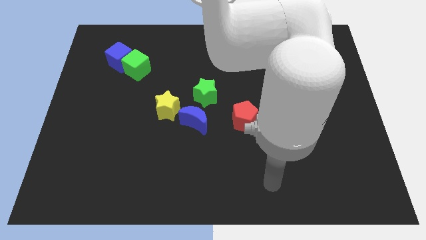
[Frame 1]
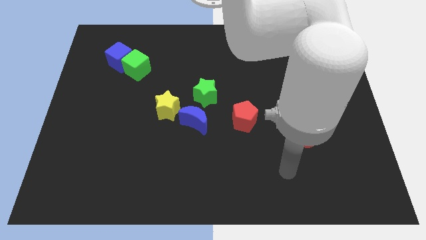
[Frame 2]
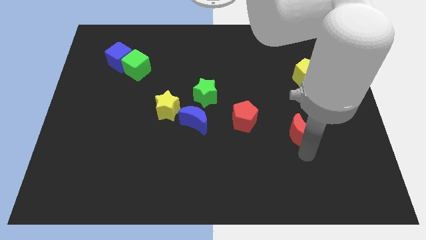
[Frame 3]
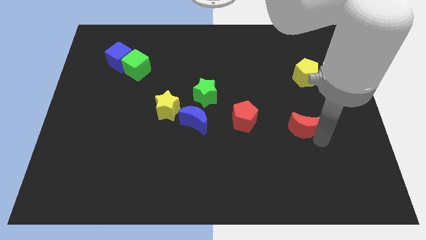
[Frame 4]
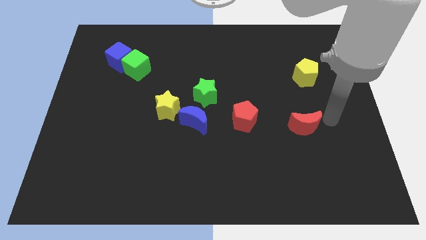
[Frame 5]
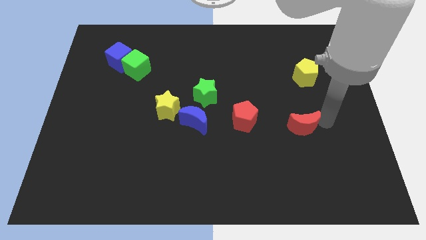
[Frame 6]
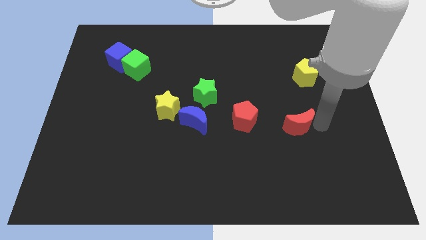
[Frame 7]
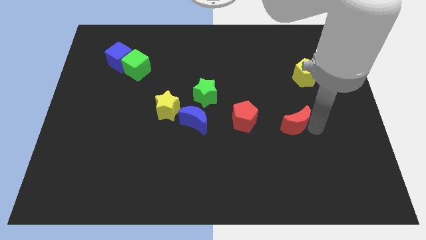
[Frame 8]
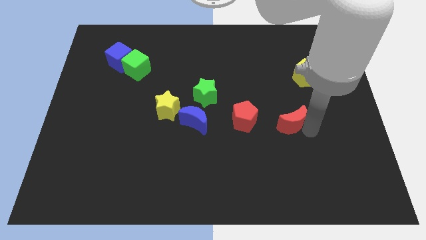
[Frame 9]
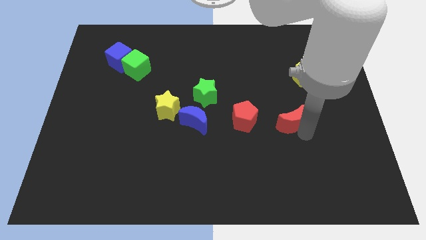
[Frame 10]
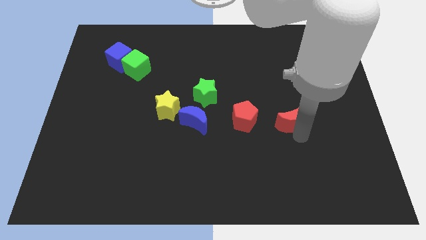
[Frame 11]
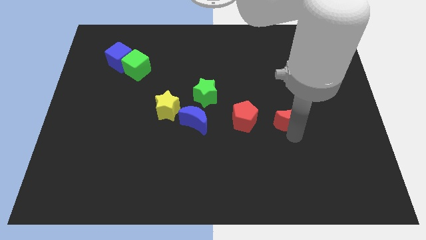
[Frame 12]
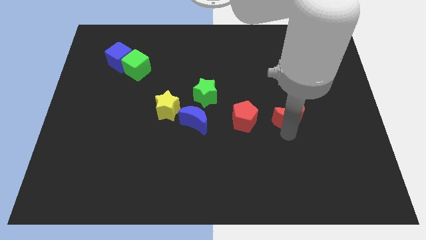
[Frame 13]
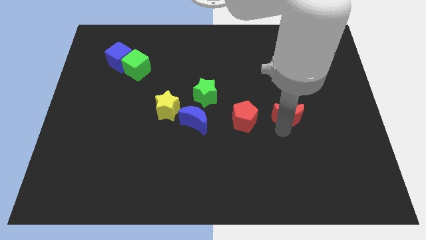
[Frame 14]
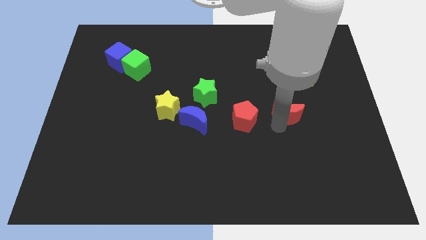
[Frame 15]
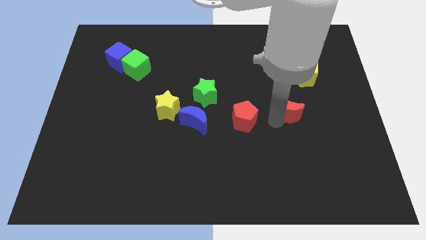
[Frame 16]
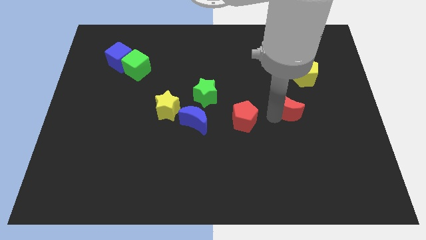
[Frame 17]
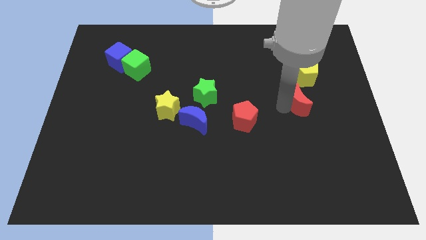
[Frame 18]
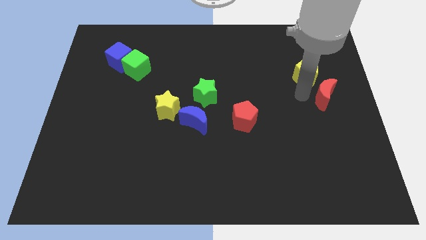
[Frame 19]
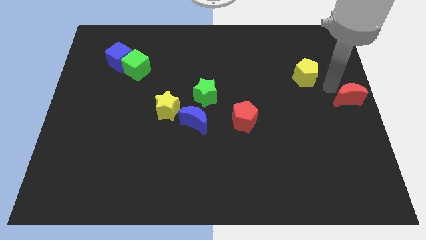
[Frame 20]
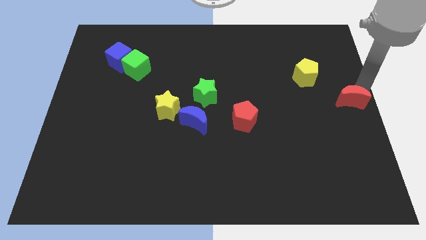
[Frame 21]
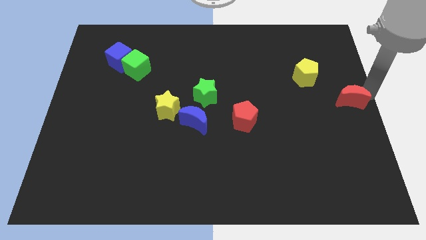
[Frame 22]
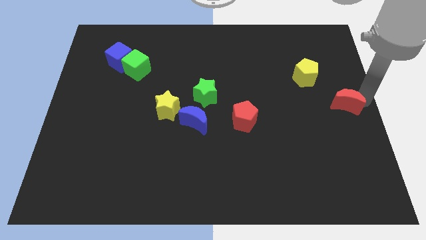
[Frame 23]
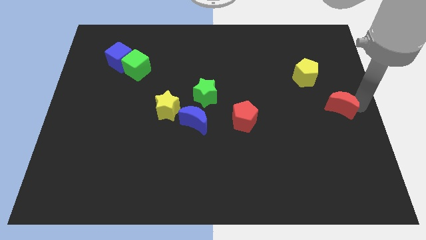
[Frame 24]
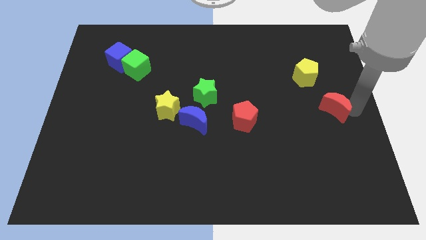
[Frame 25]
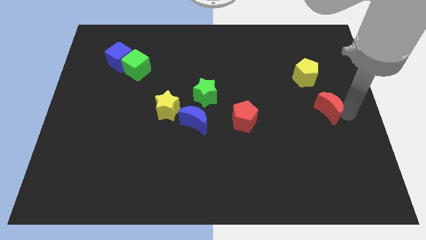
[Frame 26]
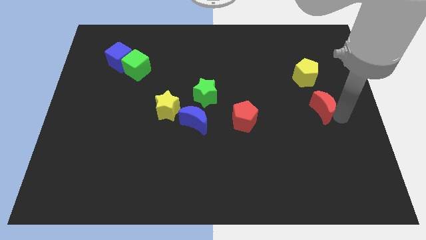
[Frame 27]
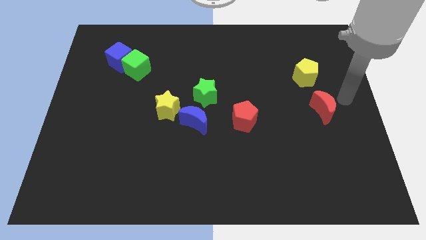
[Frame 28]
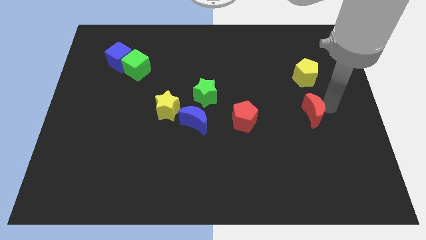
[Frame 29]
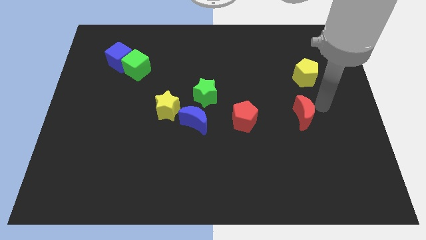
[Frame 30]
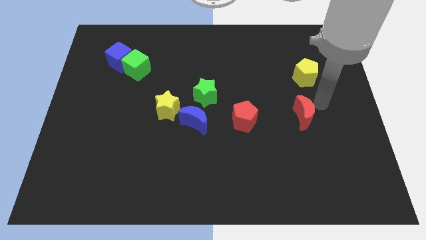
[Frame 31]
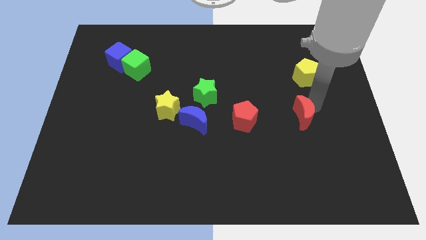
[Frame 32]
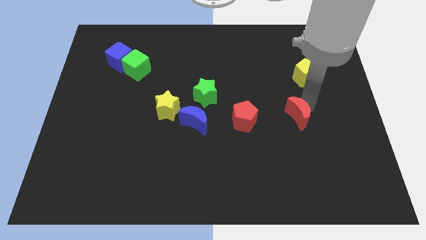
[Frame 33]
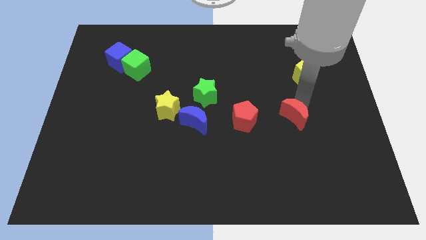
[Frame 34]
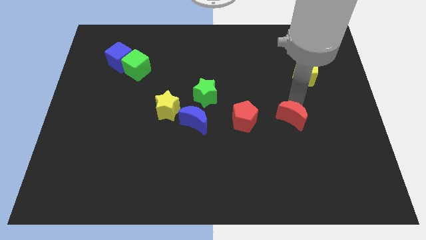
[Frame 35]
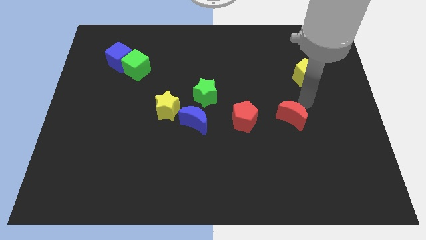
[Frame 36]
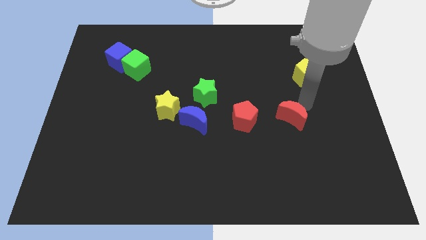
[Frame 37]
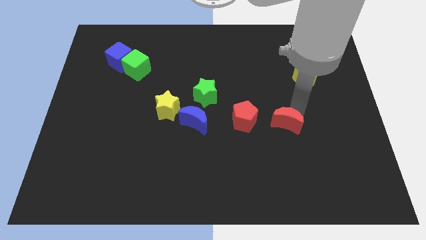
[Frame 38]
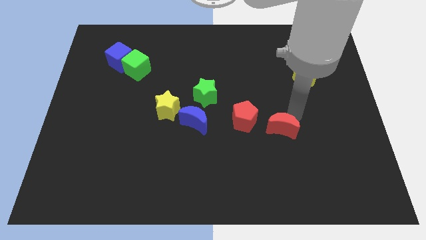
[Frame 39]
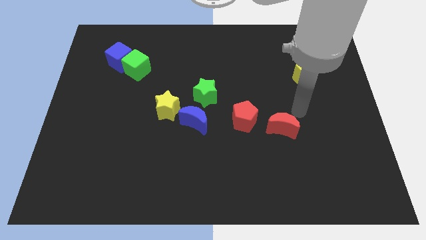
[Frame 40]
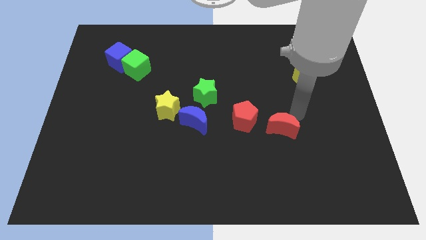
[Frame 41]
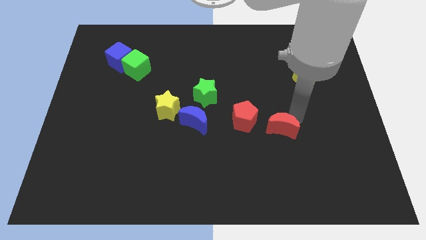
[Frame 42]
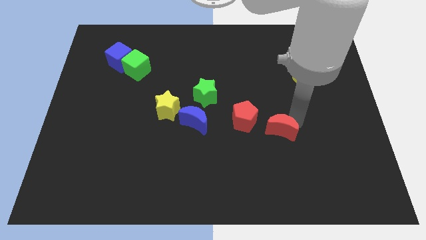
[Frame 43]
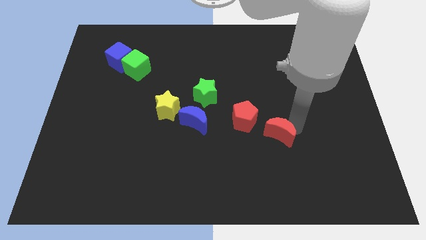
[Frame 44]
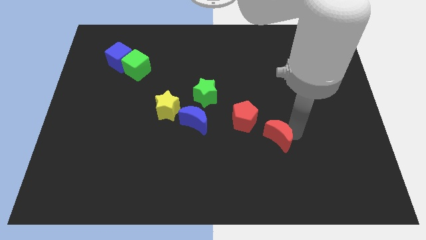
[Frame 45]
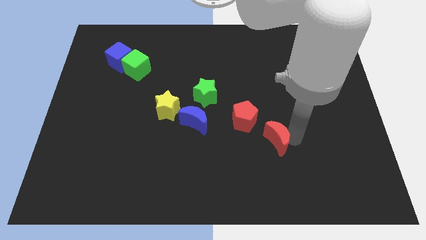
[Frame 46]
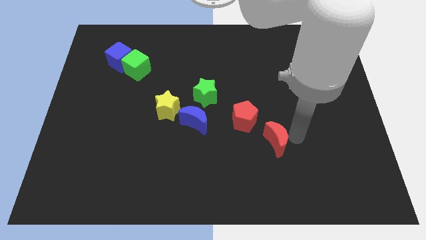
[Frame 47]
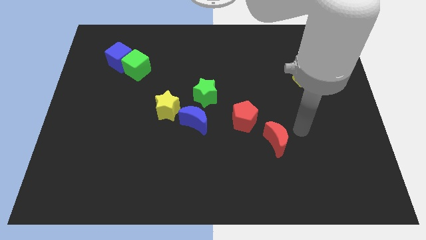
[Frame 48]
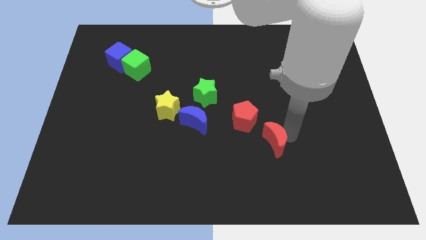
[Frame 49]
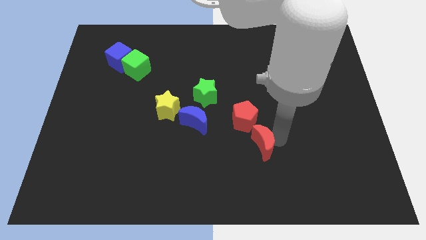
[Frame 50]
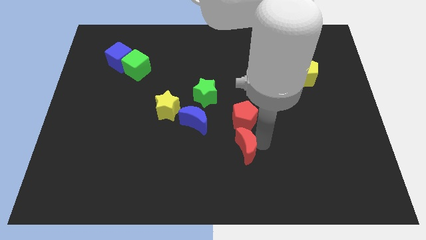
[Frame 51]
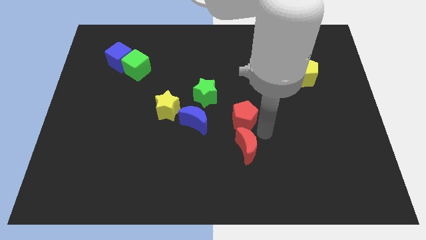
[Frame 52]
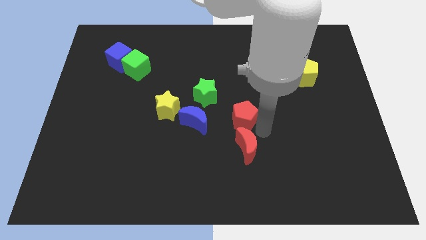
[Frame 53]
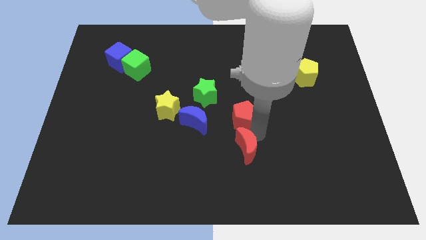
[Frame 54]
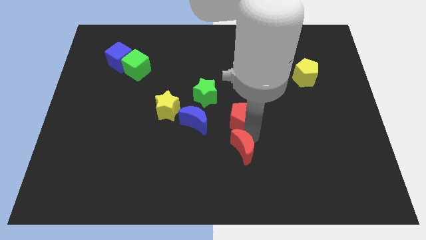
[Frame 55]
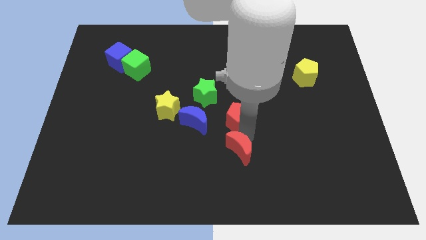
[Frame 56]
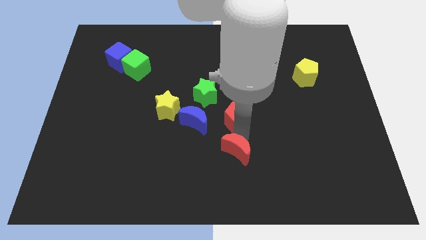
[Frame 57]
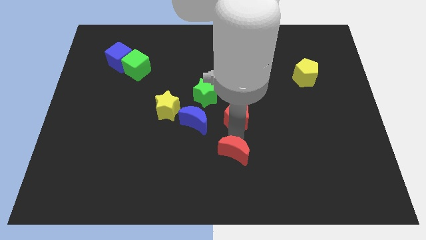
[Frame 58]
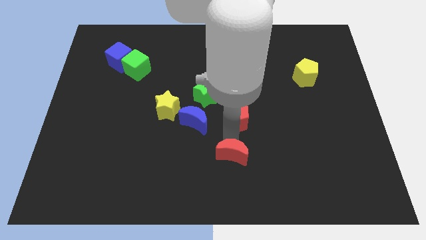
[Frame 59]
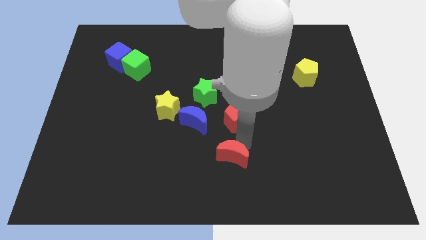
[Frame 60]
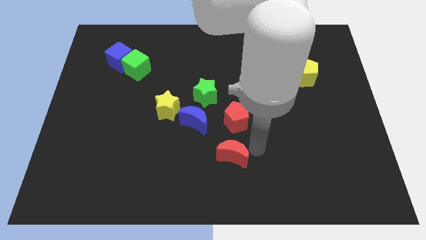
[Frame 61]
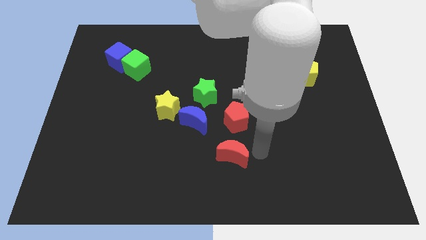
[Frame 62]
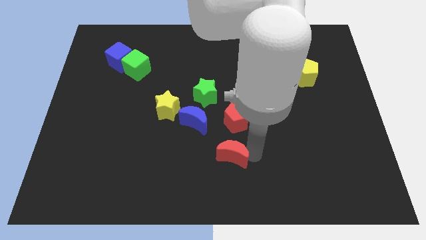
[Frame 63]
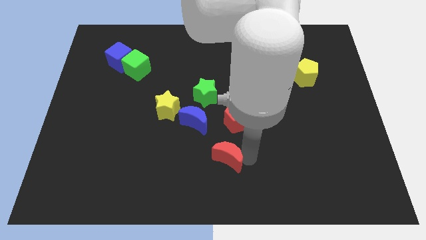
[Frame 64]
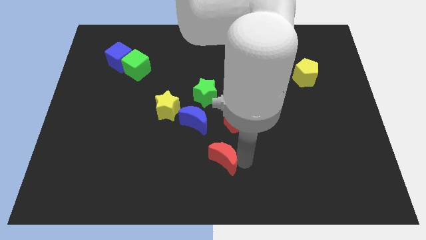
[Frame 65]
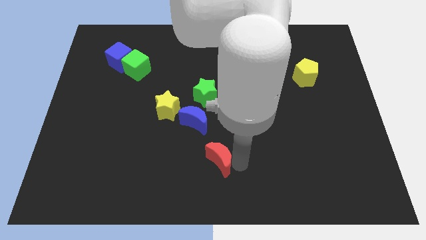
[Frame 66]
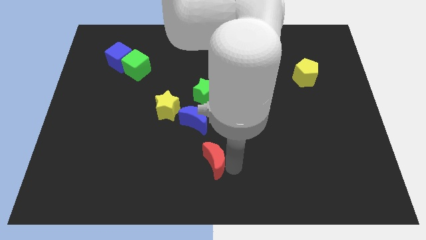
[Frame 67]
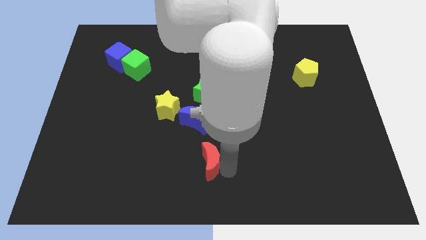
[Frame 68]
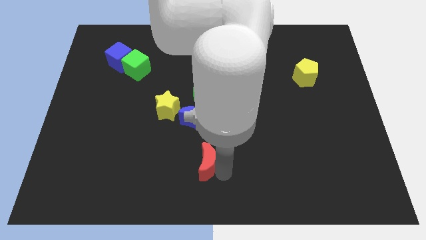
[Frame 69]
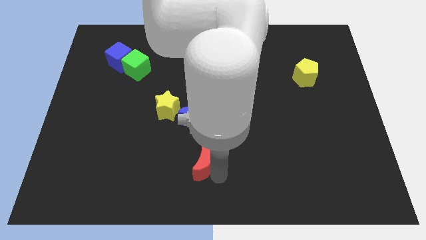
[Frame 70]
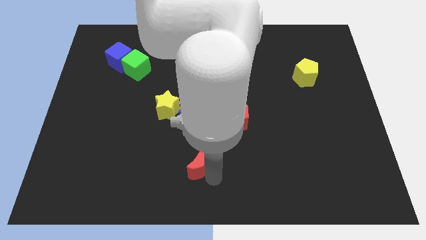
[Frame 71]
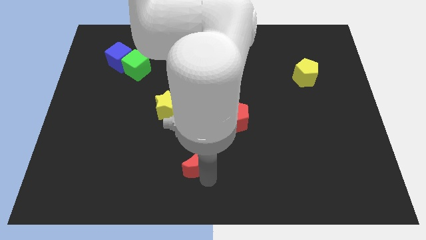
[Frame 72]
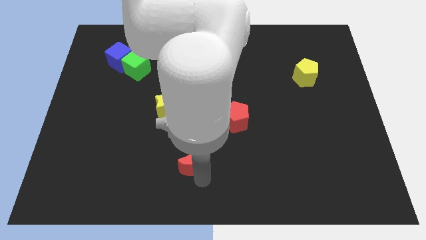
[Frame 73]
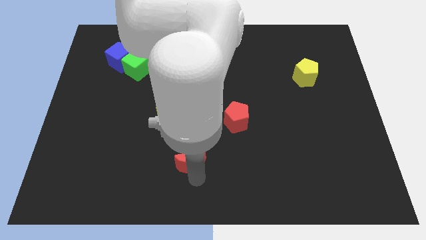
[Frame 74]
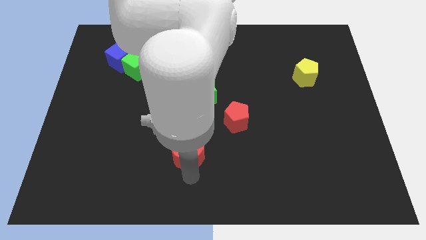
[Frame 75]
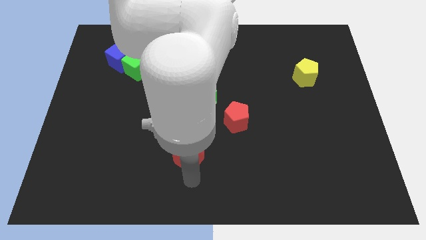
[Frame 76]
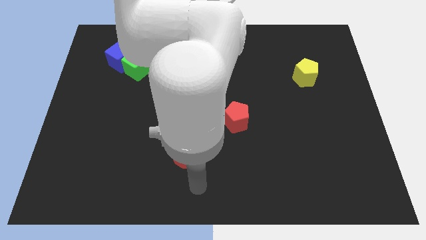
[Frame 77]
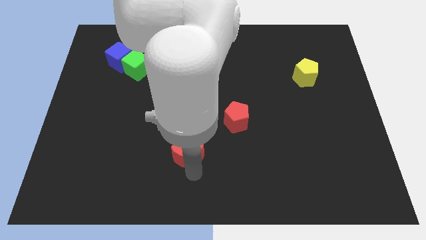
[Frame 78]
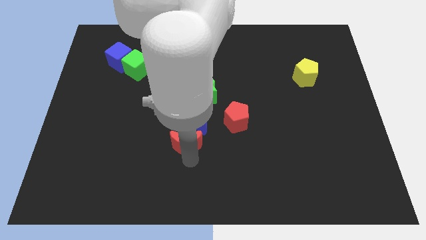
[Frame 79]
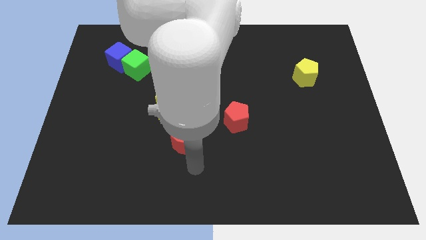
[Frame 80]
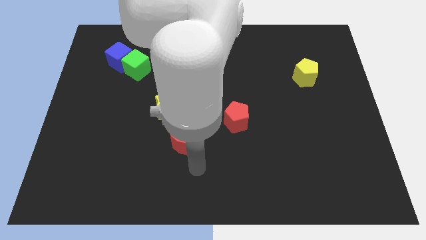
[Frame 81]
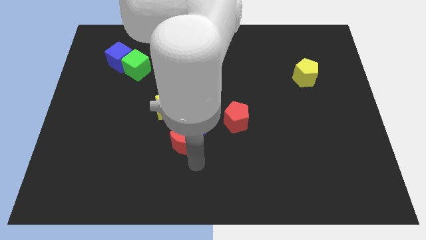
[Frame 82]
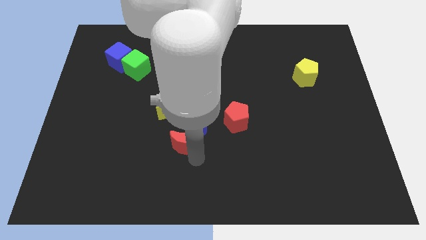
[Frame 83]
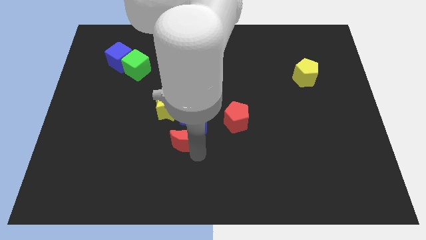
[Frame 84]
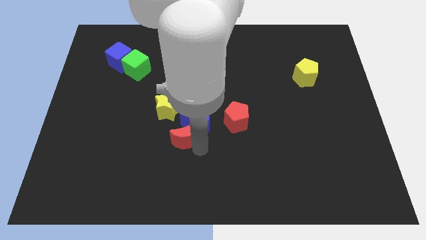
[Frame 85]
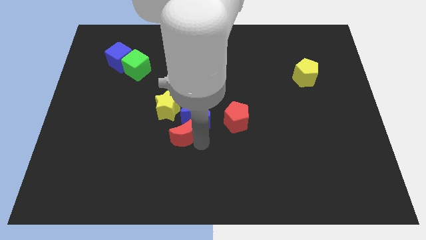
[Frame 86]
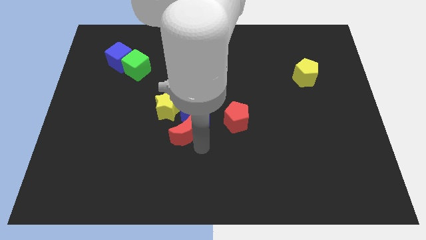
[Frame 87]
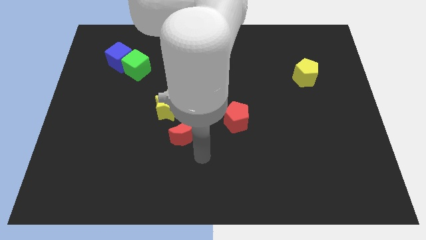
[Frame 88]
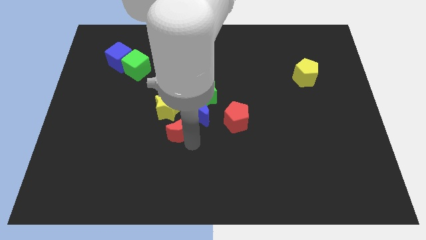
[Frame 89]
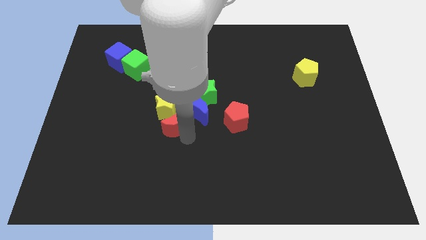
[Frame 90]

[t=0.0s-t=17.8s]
move the red moon next to the yellow star
